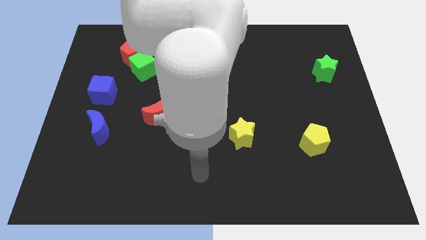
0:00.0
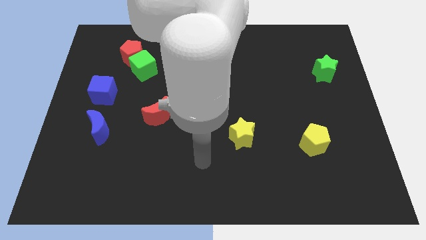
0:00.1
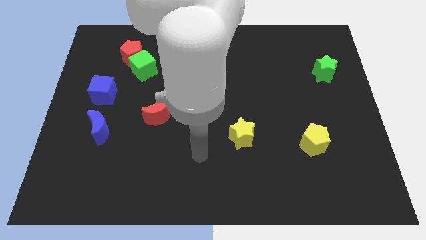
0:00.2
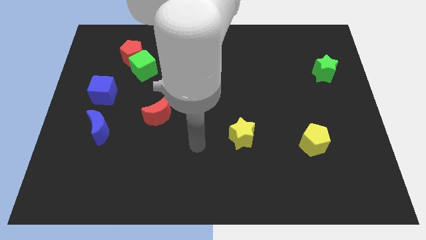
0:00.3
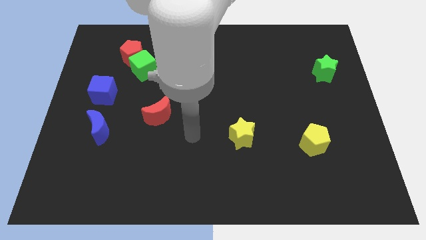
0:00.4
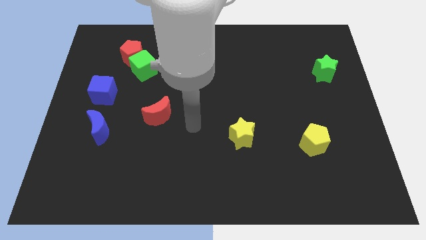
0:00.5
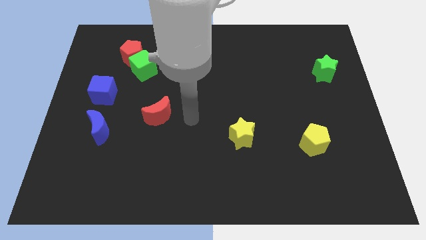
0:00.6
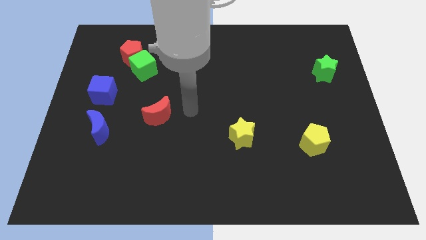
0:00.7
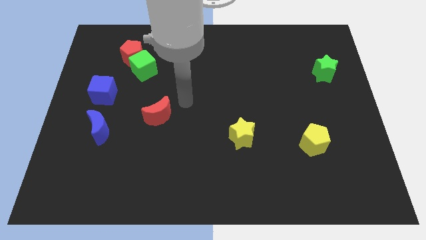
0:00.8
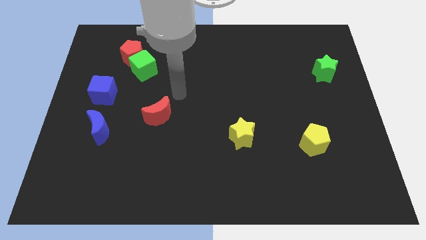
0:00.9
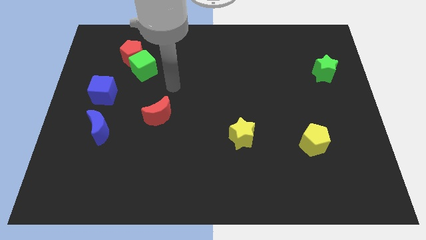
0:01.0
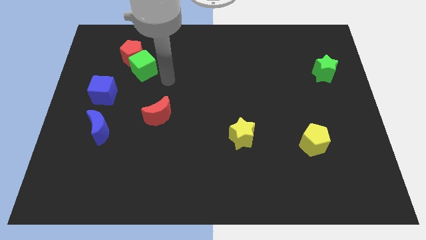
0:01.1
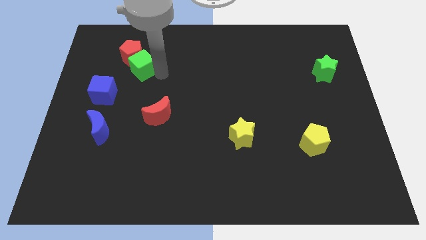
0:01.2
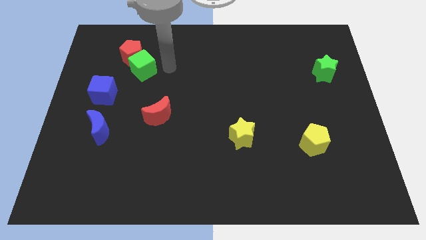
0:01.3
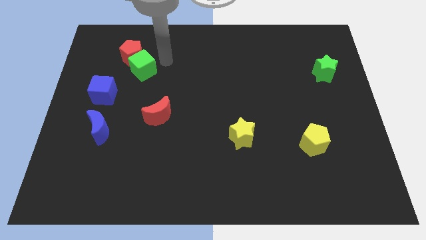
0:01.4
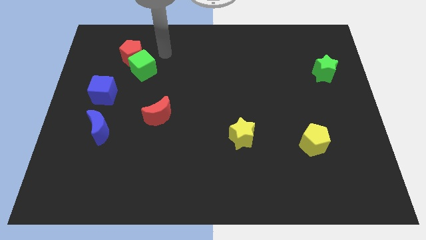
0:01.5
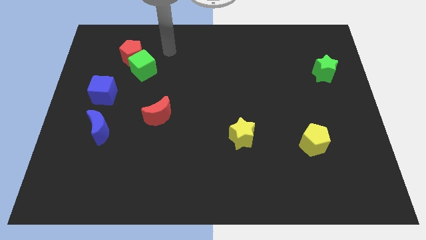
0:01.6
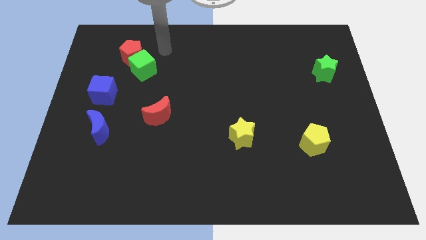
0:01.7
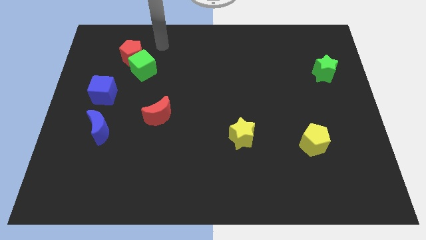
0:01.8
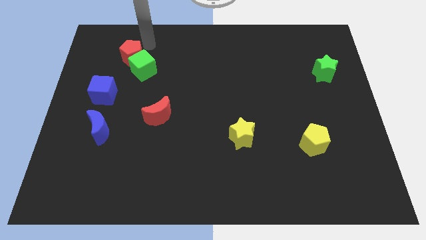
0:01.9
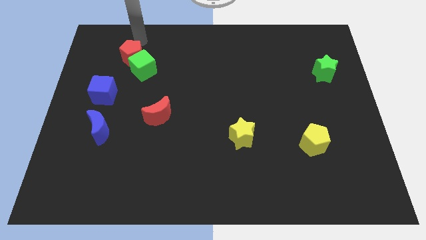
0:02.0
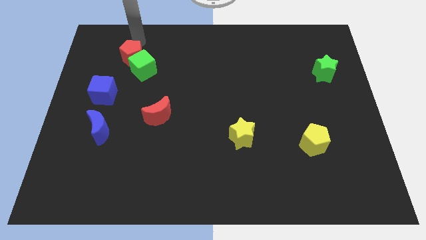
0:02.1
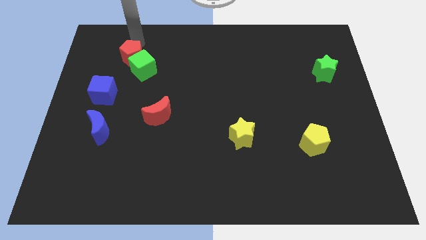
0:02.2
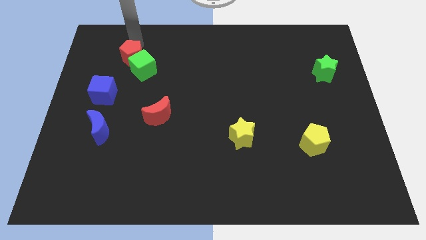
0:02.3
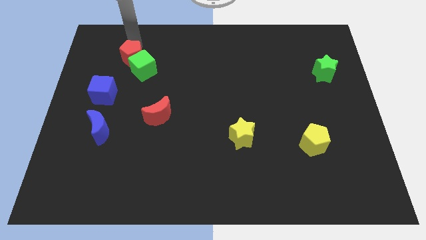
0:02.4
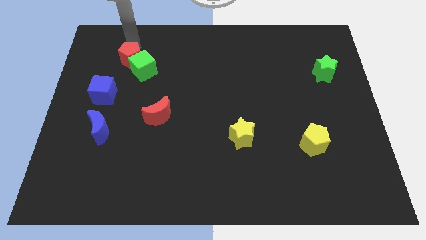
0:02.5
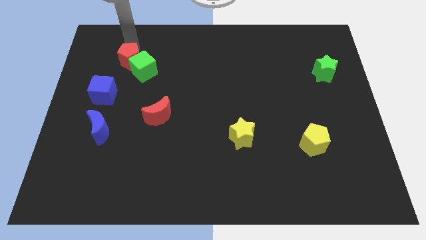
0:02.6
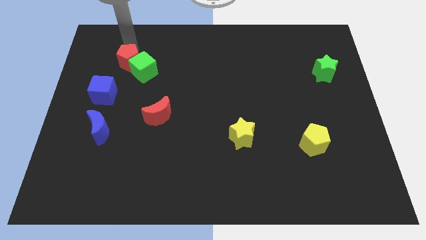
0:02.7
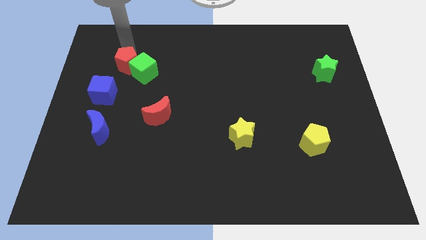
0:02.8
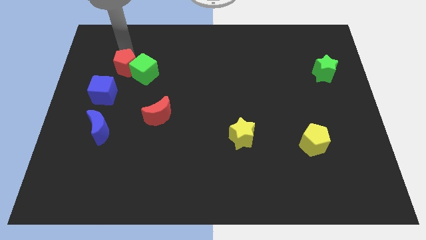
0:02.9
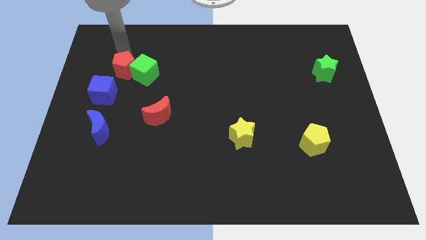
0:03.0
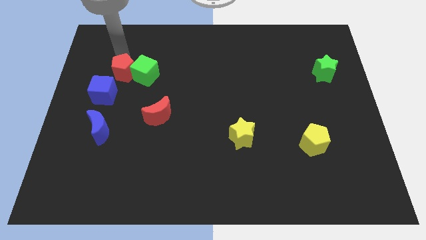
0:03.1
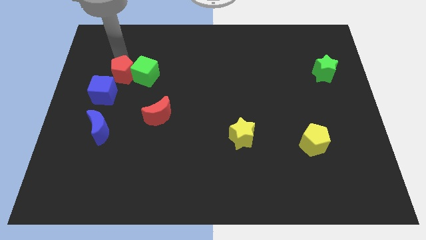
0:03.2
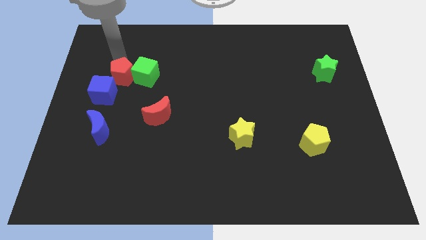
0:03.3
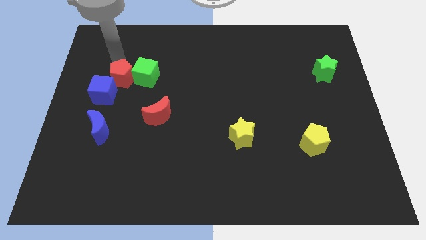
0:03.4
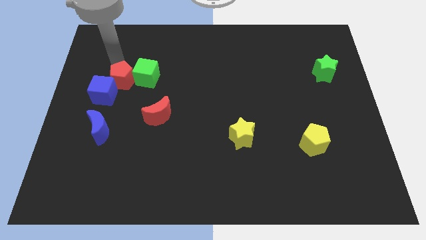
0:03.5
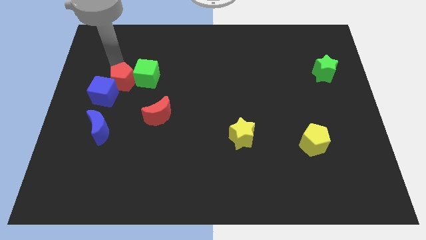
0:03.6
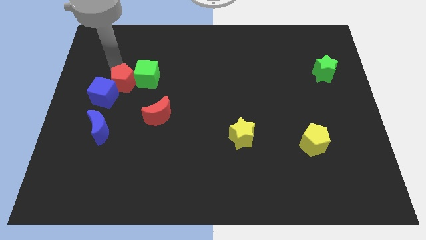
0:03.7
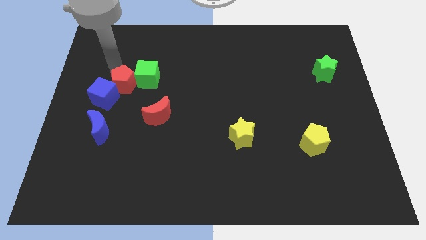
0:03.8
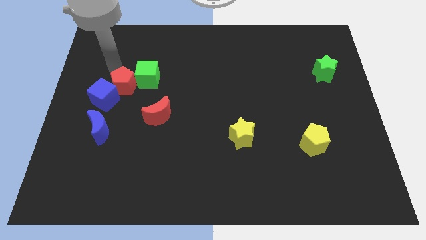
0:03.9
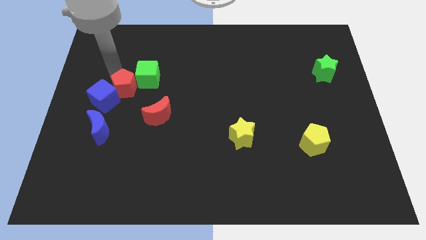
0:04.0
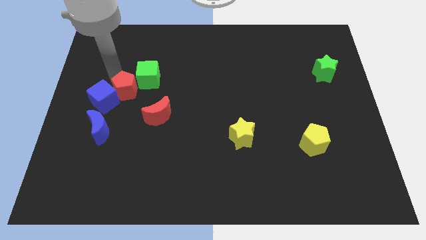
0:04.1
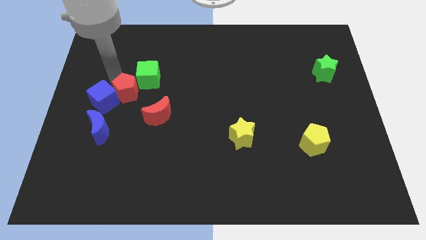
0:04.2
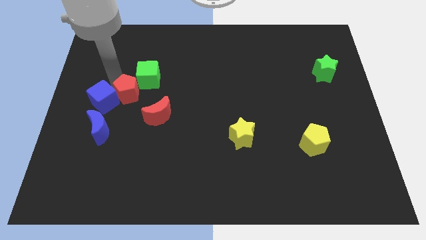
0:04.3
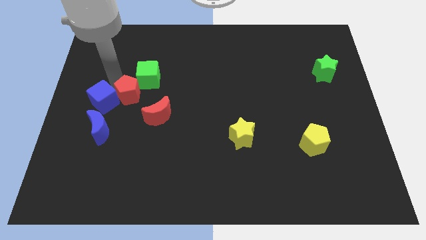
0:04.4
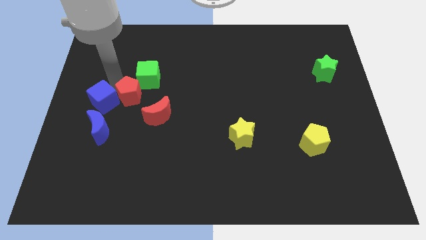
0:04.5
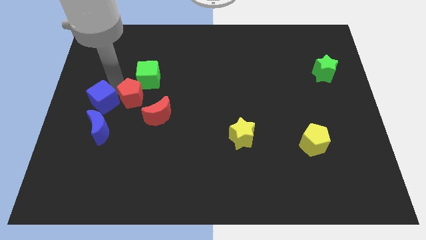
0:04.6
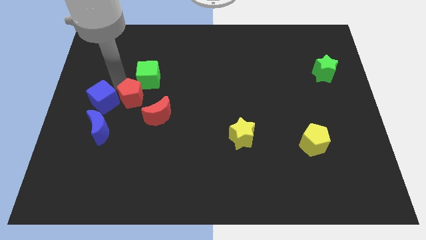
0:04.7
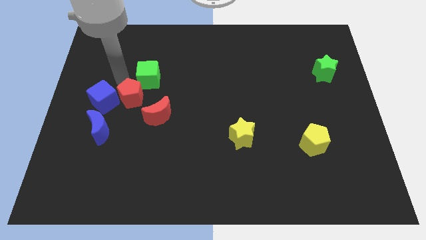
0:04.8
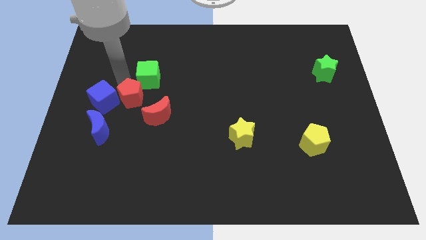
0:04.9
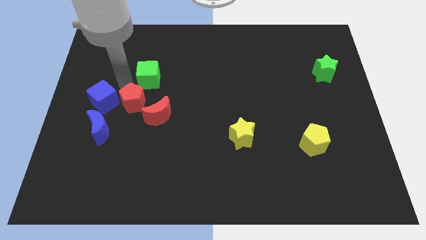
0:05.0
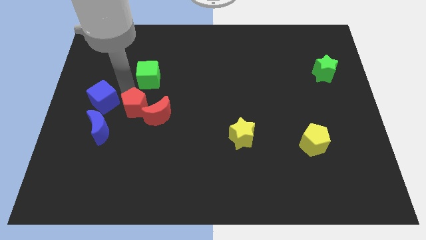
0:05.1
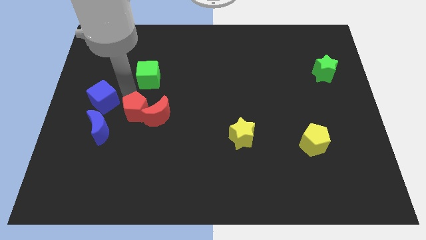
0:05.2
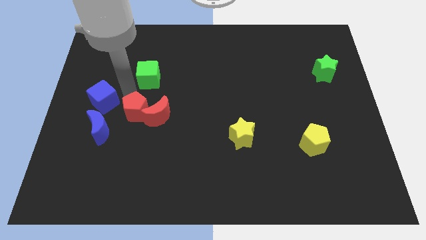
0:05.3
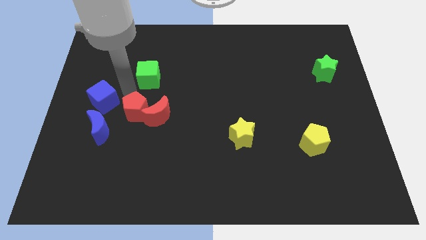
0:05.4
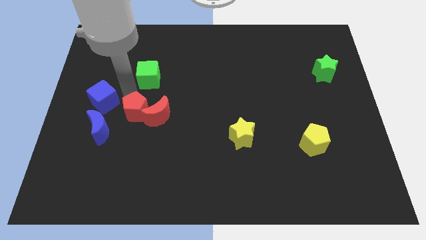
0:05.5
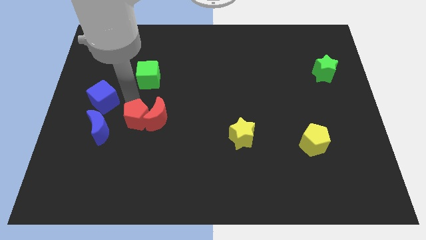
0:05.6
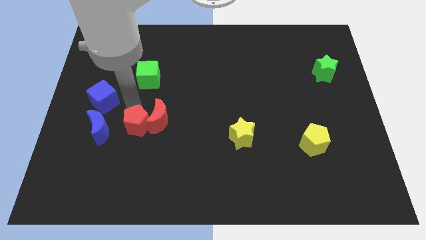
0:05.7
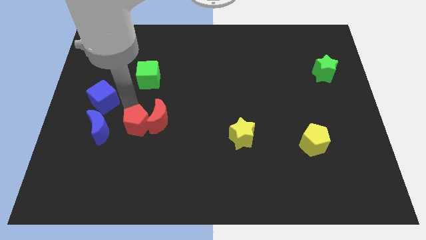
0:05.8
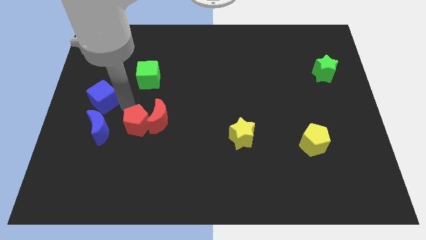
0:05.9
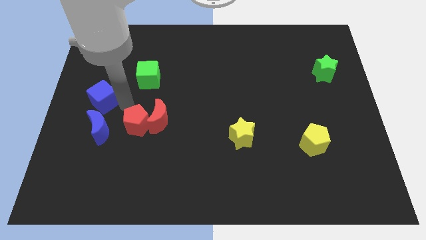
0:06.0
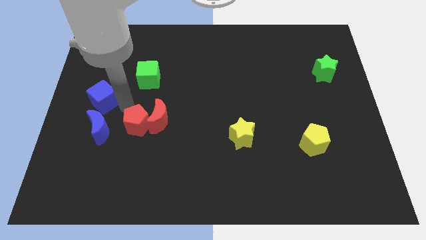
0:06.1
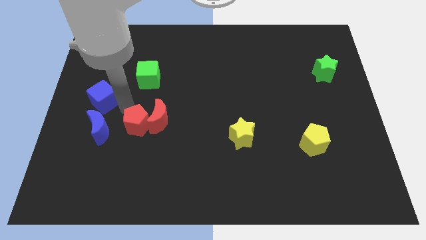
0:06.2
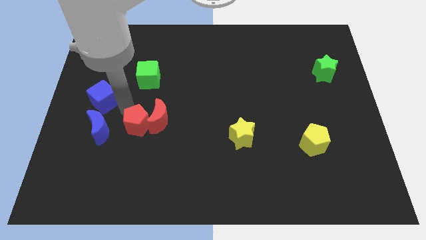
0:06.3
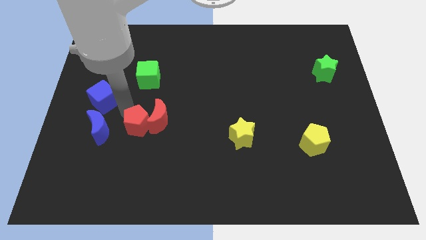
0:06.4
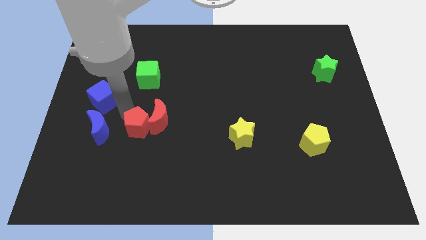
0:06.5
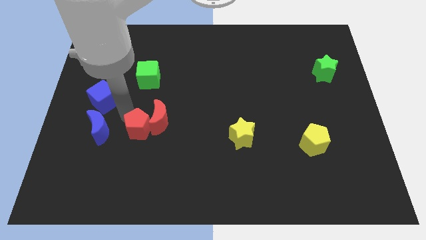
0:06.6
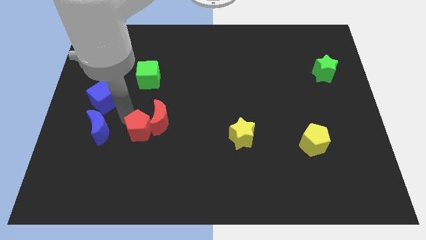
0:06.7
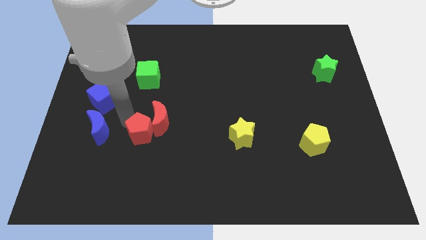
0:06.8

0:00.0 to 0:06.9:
push the red pentagon below the red moon
